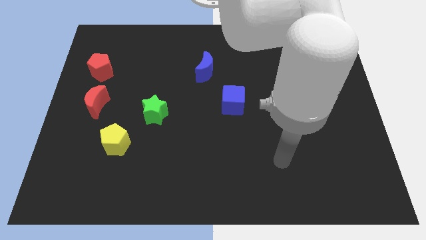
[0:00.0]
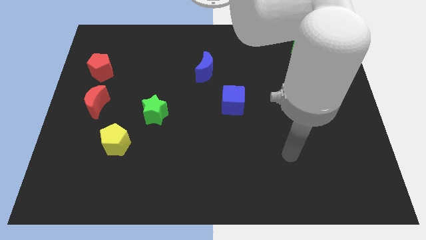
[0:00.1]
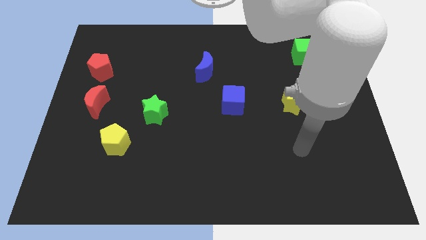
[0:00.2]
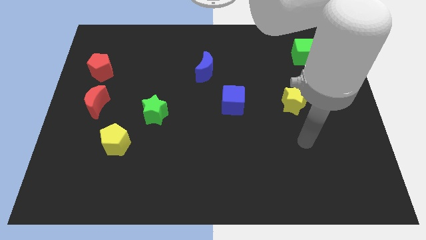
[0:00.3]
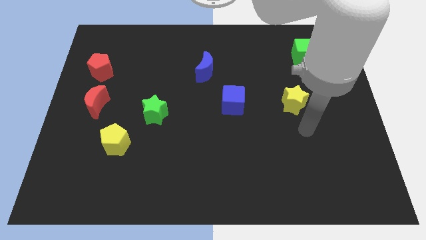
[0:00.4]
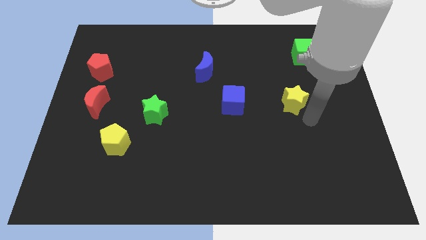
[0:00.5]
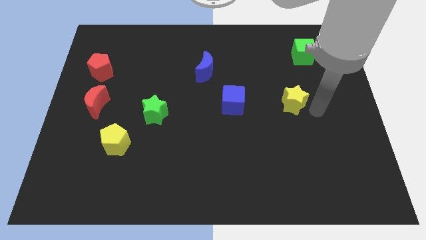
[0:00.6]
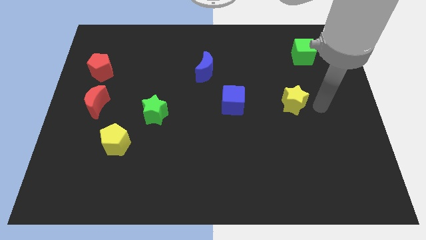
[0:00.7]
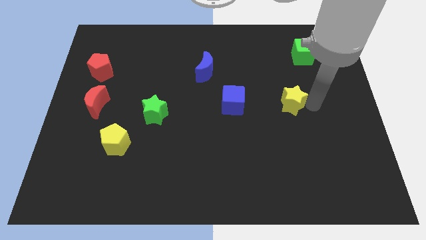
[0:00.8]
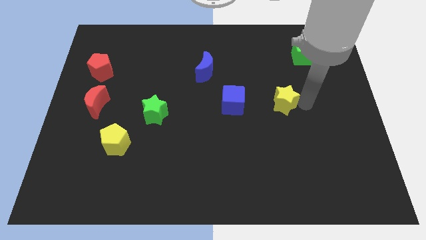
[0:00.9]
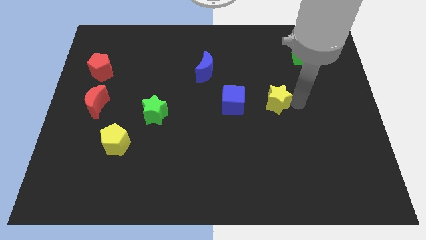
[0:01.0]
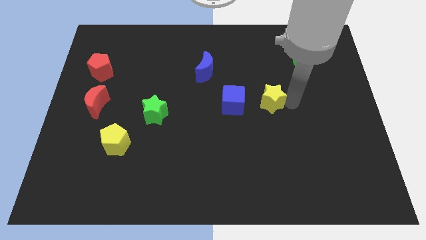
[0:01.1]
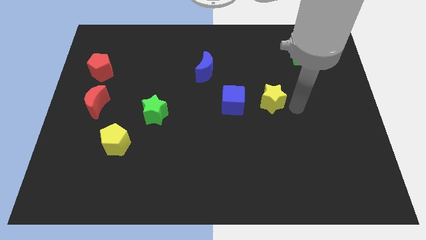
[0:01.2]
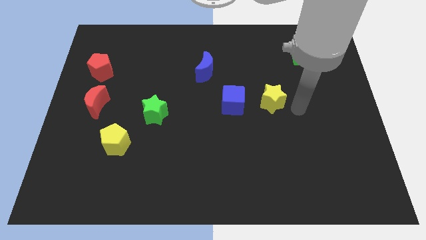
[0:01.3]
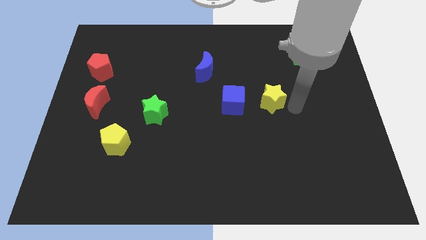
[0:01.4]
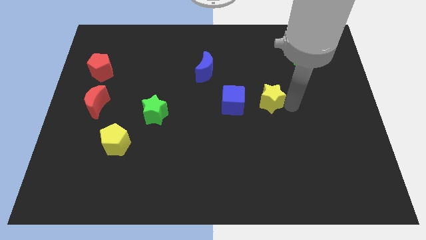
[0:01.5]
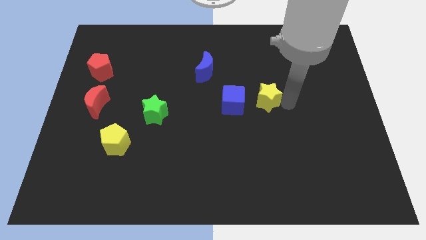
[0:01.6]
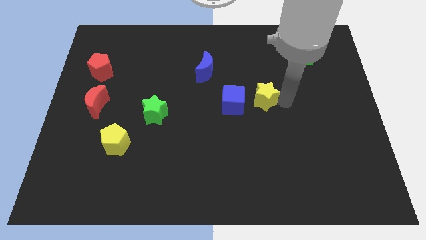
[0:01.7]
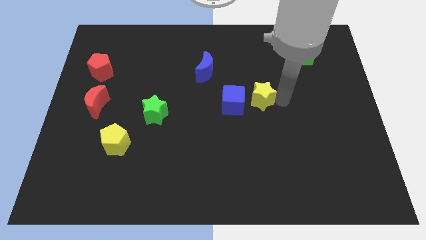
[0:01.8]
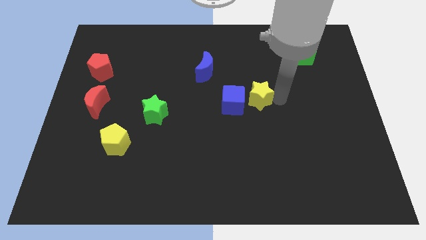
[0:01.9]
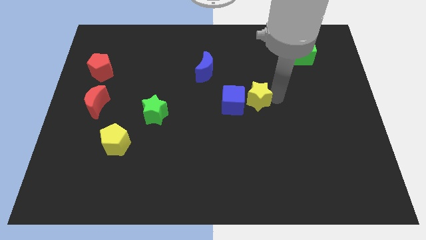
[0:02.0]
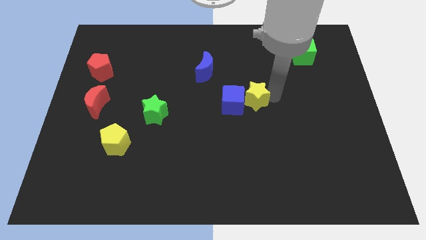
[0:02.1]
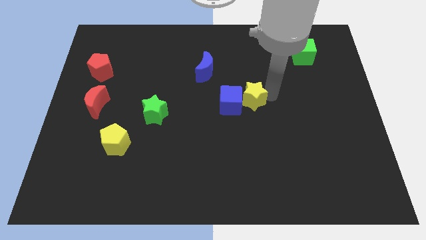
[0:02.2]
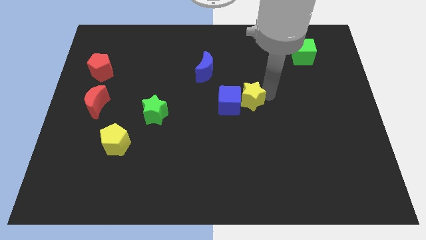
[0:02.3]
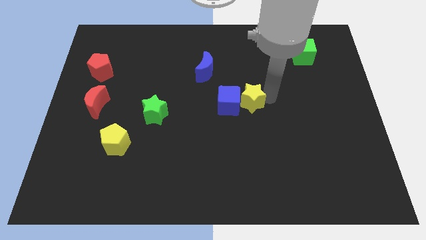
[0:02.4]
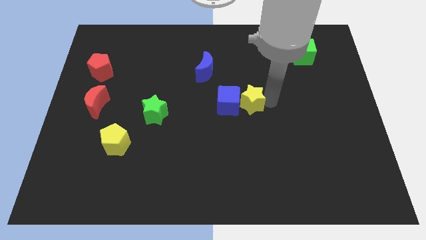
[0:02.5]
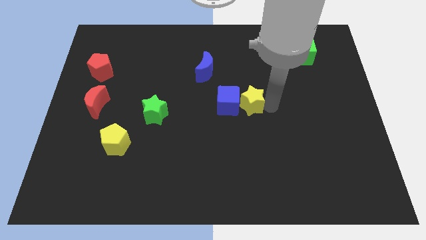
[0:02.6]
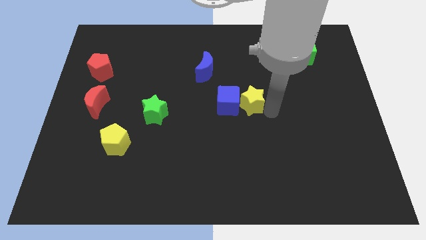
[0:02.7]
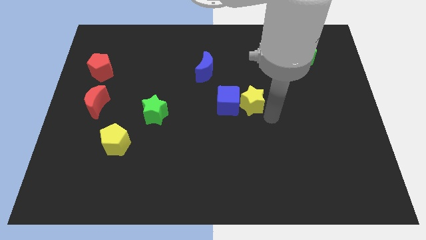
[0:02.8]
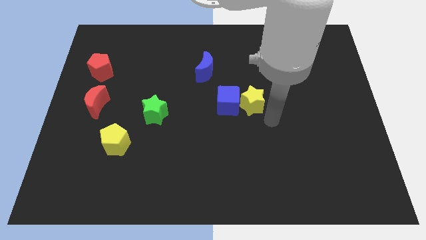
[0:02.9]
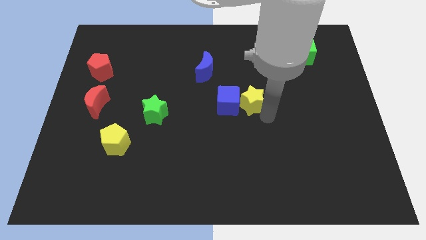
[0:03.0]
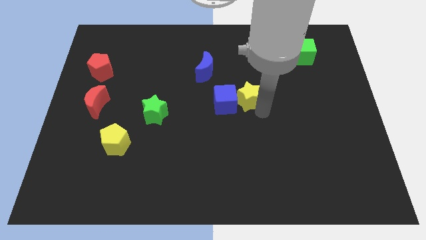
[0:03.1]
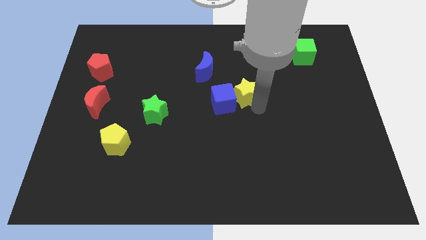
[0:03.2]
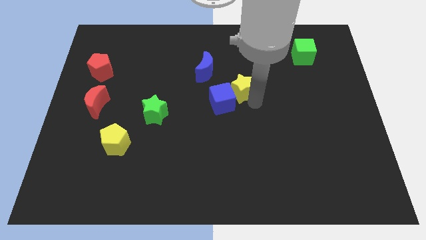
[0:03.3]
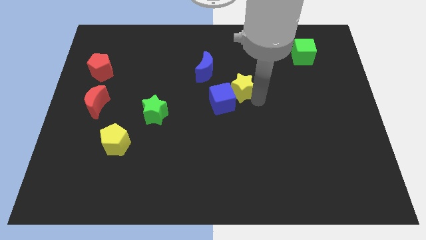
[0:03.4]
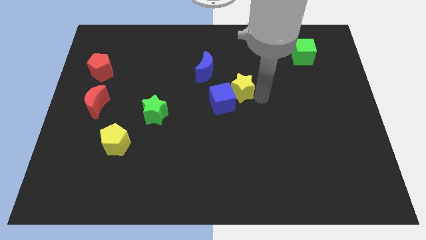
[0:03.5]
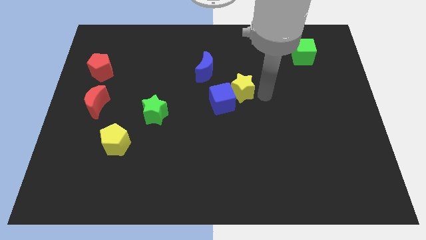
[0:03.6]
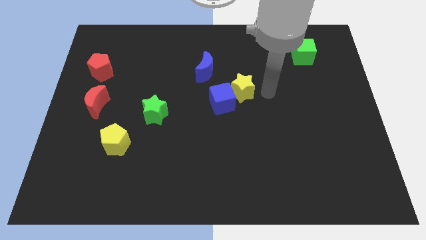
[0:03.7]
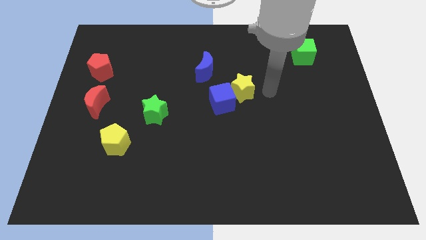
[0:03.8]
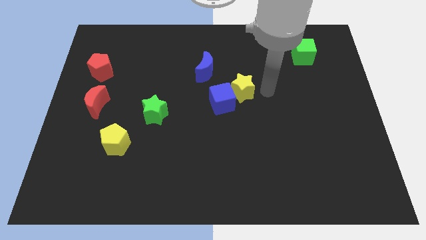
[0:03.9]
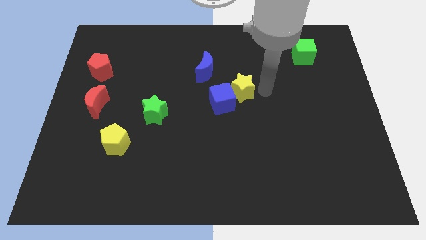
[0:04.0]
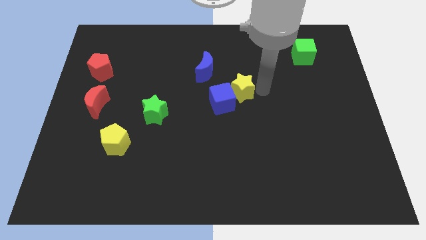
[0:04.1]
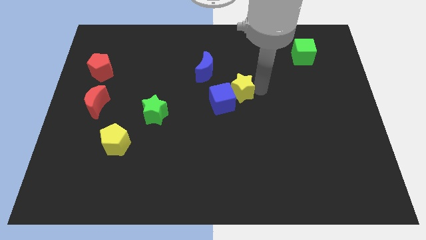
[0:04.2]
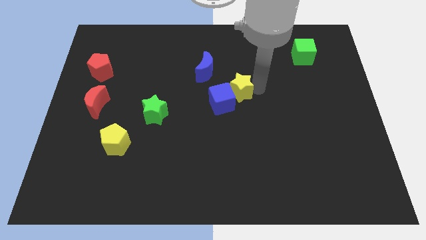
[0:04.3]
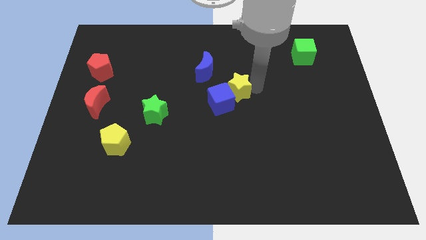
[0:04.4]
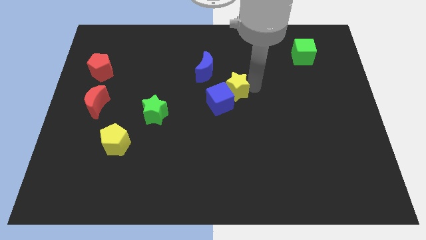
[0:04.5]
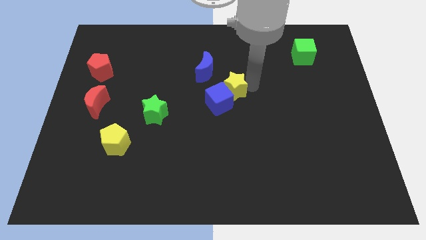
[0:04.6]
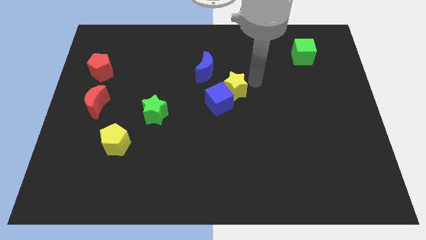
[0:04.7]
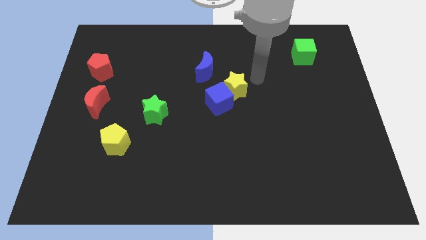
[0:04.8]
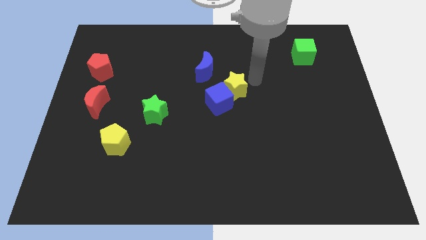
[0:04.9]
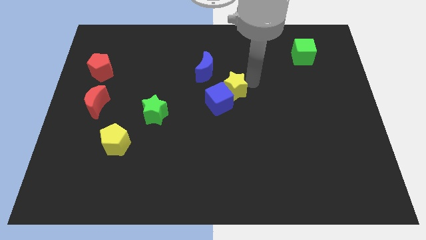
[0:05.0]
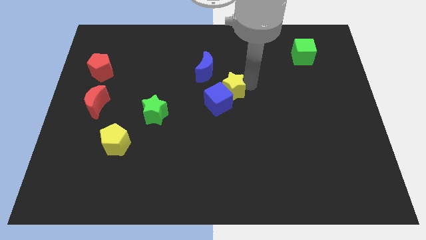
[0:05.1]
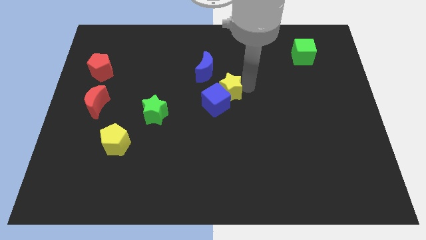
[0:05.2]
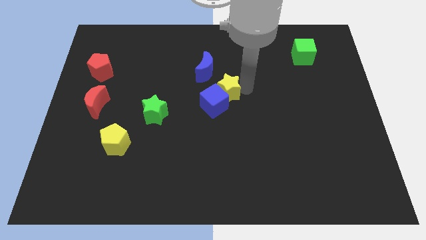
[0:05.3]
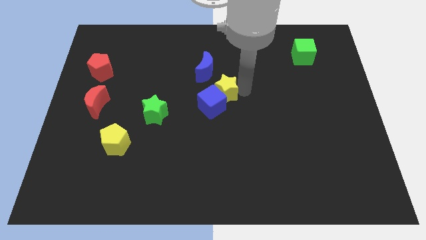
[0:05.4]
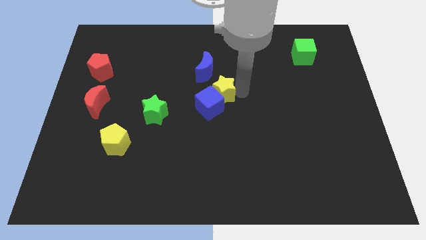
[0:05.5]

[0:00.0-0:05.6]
move the yellow star below the blue moon
